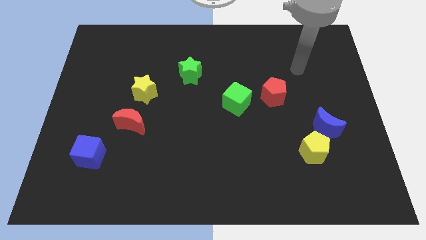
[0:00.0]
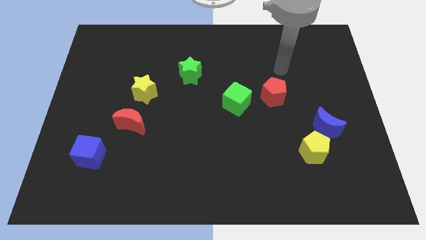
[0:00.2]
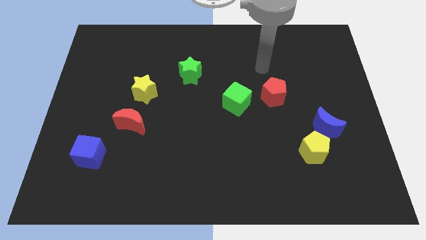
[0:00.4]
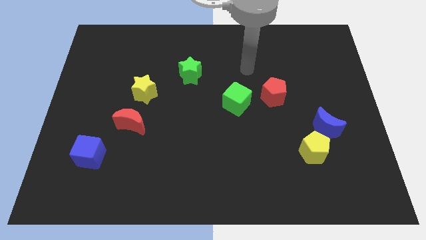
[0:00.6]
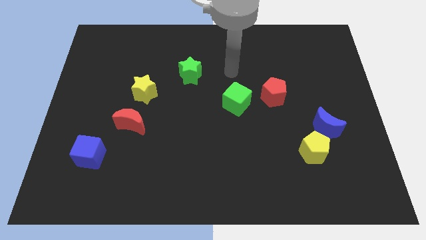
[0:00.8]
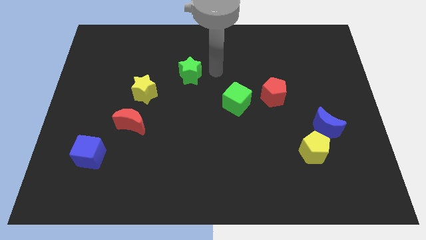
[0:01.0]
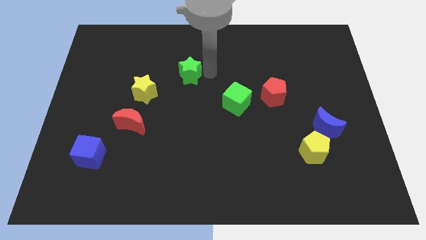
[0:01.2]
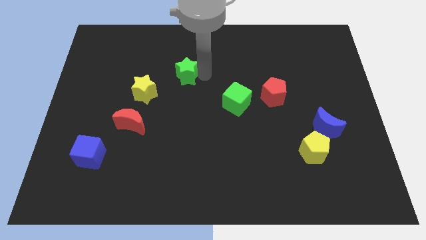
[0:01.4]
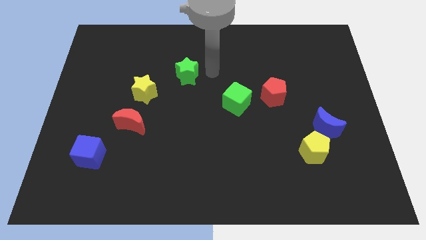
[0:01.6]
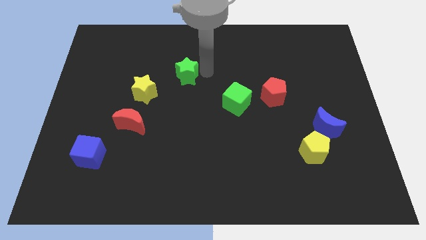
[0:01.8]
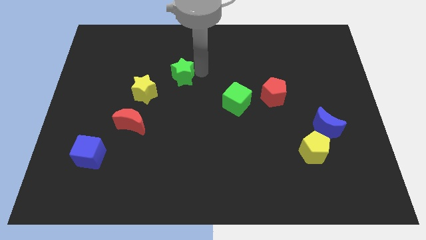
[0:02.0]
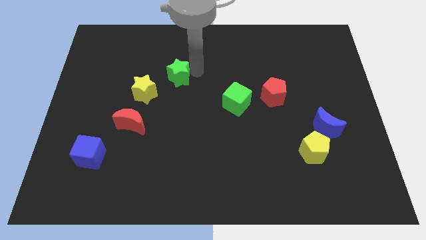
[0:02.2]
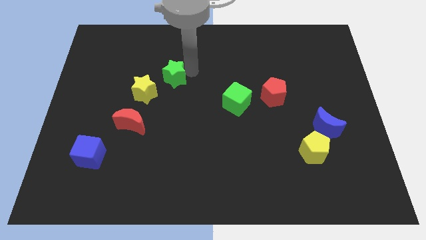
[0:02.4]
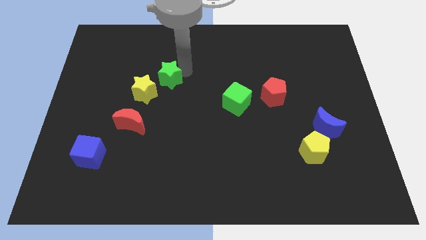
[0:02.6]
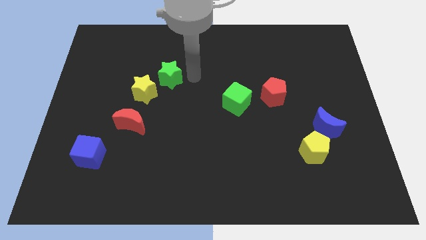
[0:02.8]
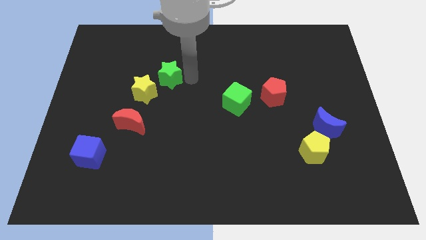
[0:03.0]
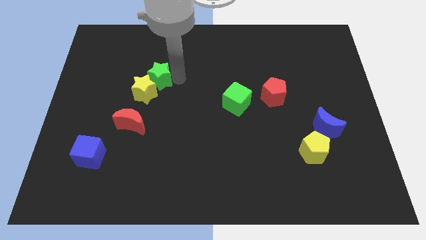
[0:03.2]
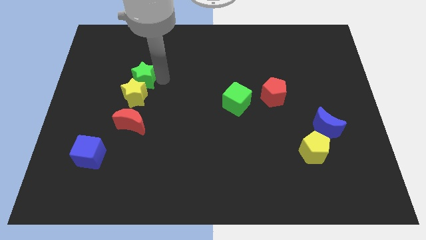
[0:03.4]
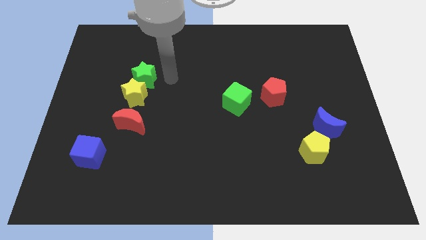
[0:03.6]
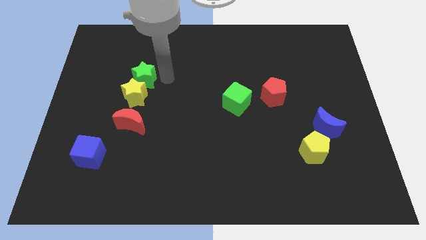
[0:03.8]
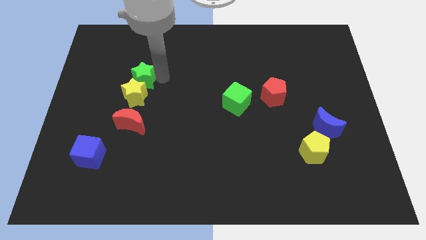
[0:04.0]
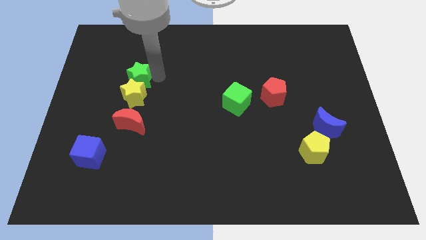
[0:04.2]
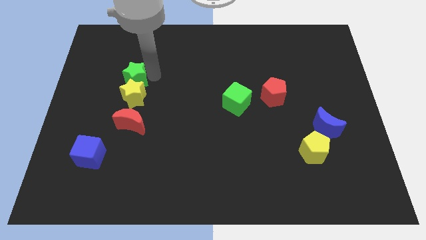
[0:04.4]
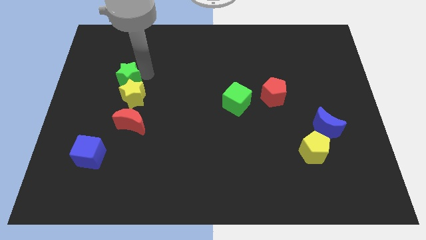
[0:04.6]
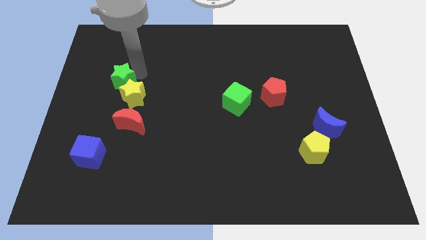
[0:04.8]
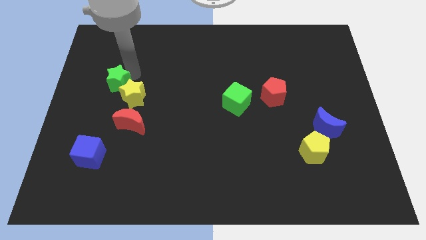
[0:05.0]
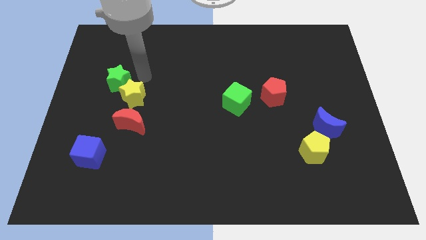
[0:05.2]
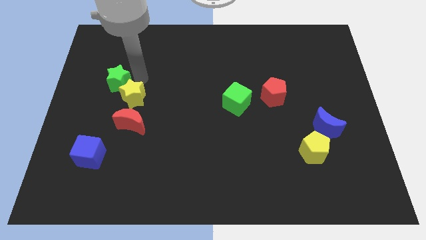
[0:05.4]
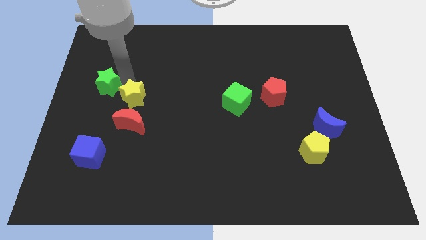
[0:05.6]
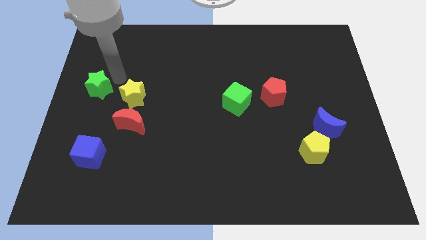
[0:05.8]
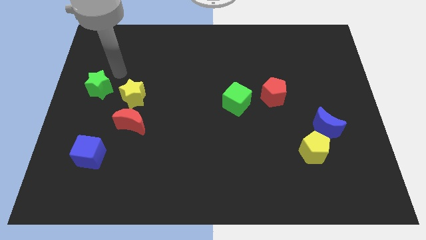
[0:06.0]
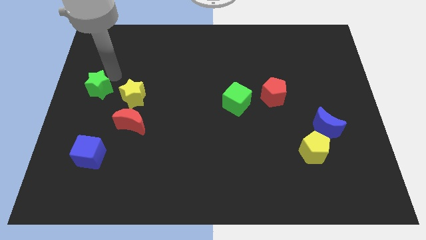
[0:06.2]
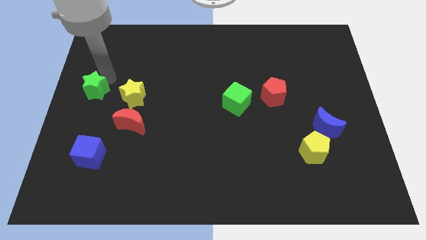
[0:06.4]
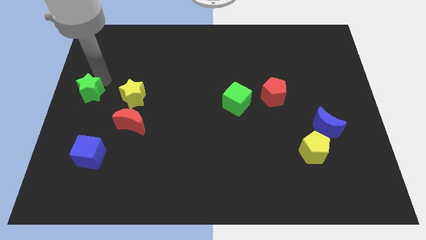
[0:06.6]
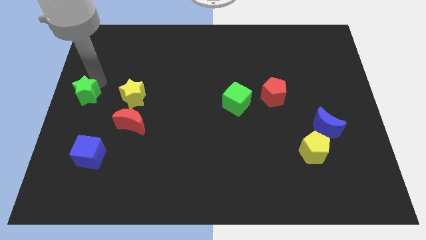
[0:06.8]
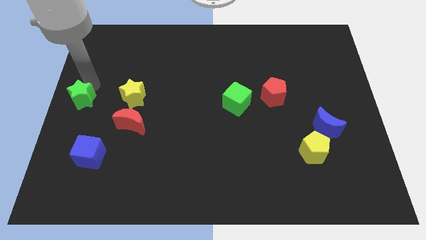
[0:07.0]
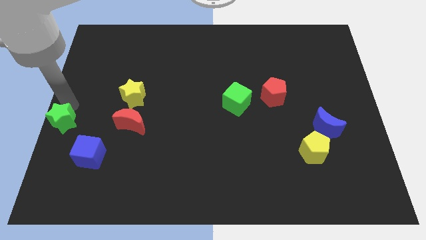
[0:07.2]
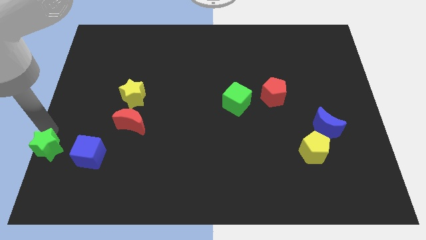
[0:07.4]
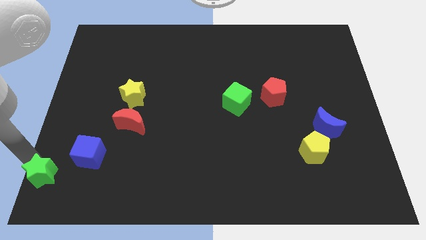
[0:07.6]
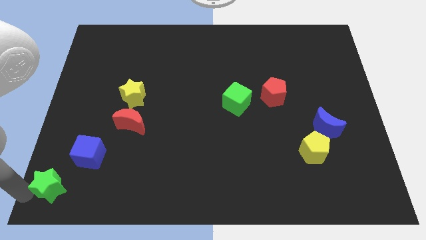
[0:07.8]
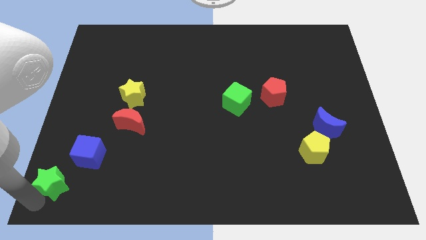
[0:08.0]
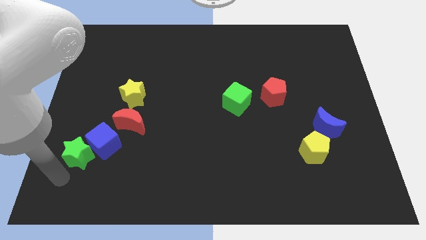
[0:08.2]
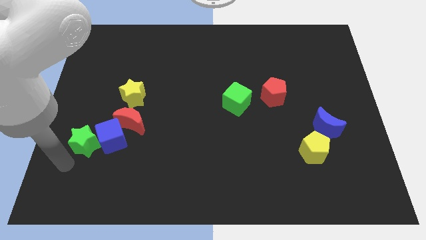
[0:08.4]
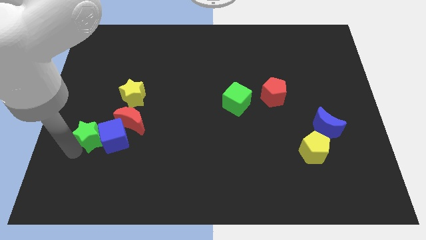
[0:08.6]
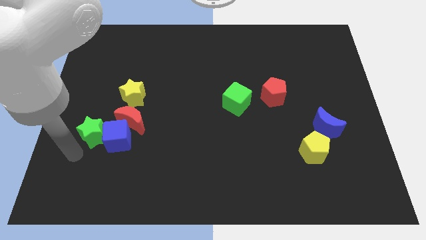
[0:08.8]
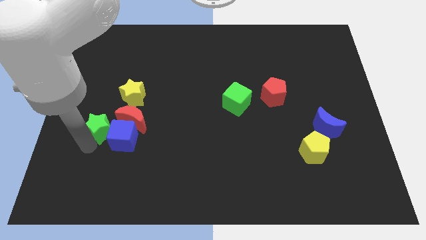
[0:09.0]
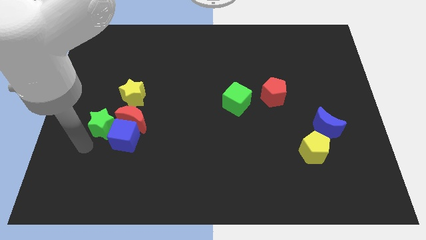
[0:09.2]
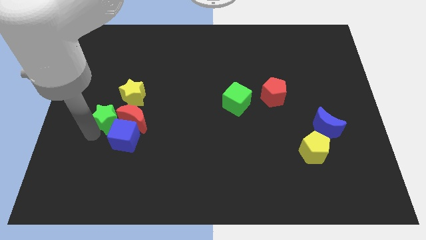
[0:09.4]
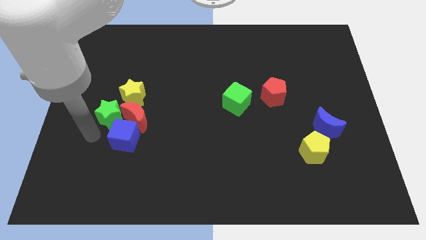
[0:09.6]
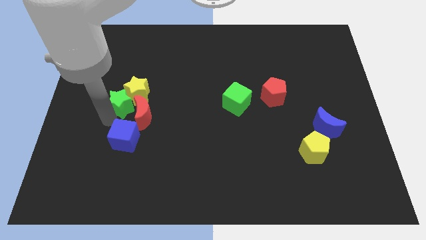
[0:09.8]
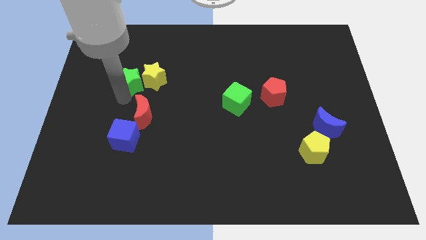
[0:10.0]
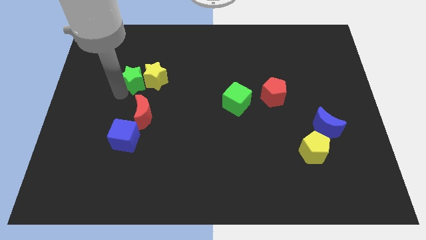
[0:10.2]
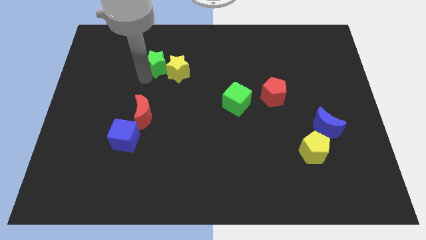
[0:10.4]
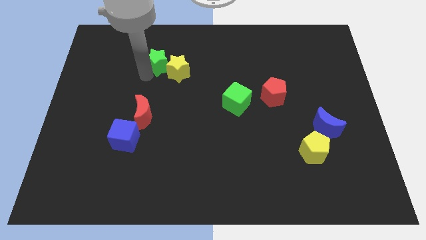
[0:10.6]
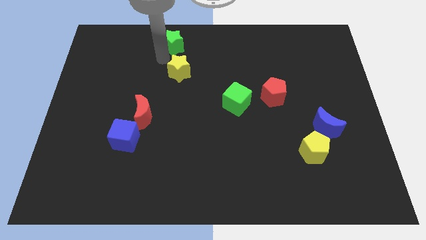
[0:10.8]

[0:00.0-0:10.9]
put the green star to the towards your base

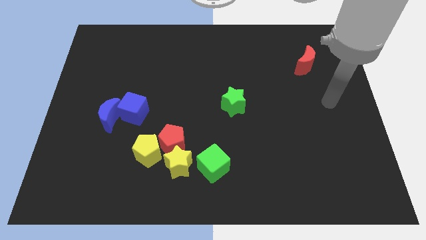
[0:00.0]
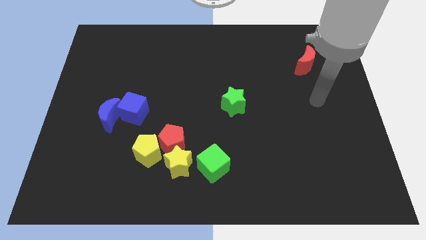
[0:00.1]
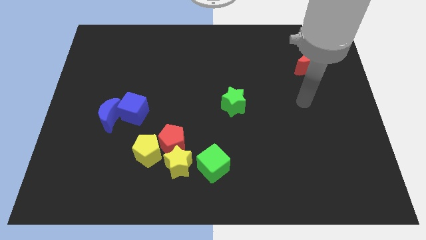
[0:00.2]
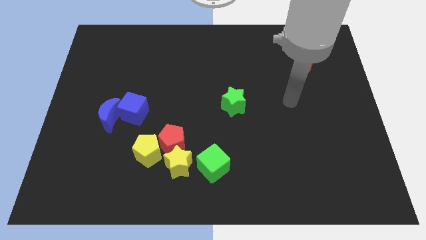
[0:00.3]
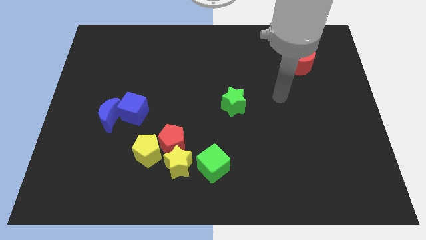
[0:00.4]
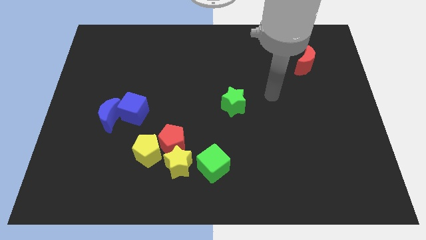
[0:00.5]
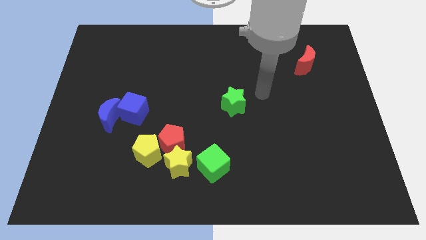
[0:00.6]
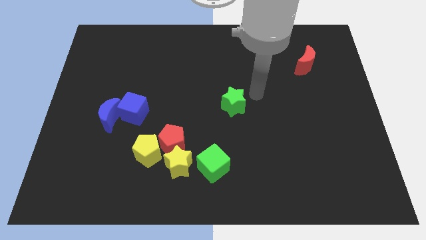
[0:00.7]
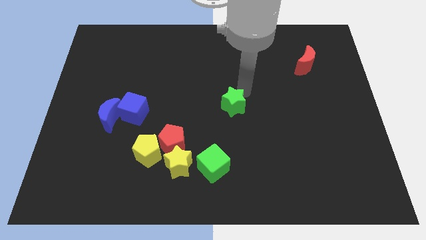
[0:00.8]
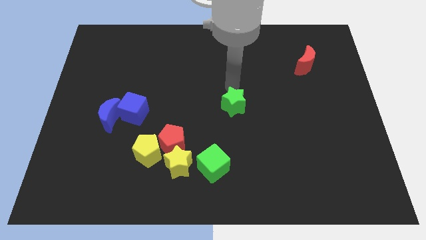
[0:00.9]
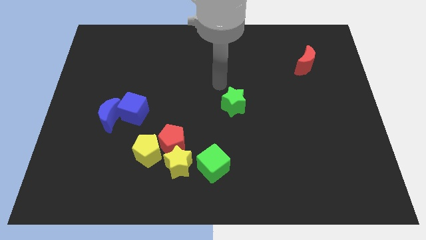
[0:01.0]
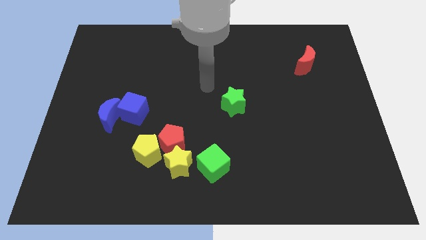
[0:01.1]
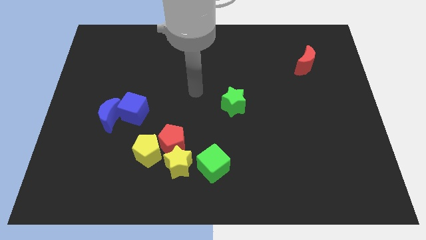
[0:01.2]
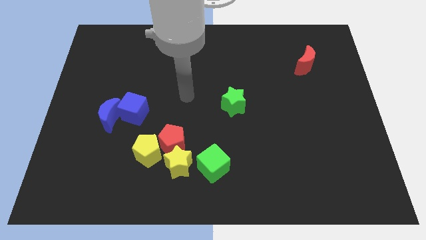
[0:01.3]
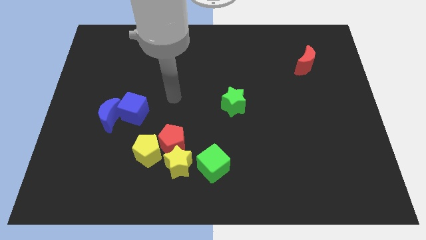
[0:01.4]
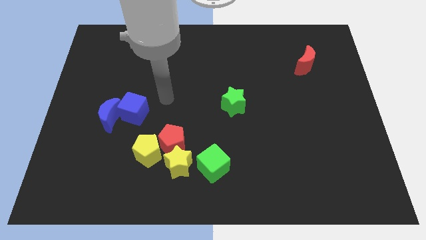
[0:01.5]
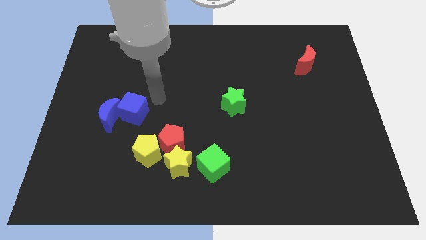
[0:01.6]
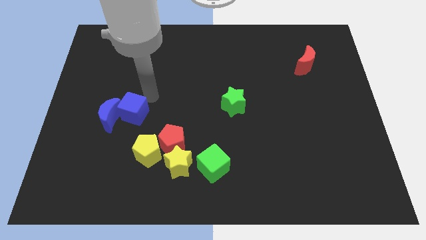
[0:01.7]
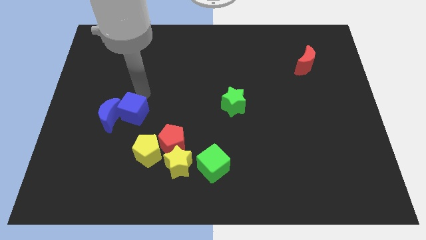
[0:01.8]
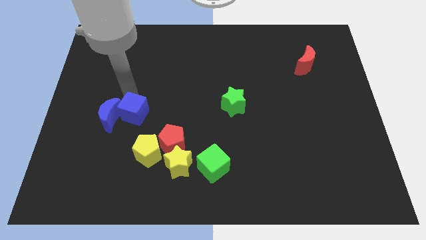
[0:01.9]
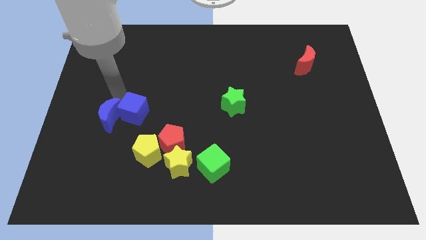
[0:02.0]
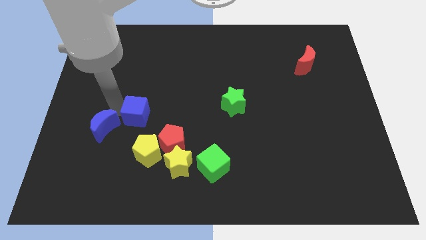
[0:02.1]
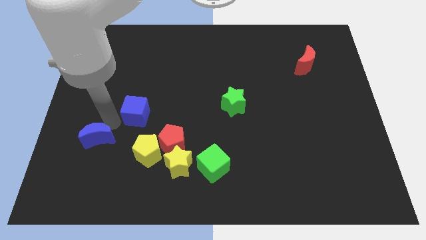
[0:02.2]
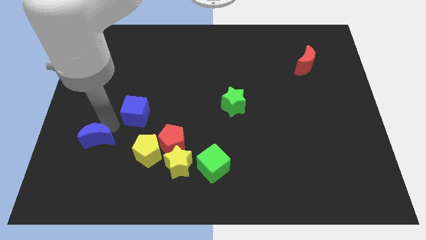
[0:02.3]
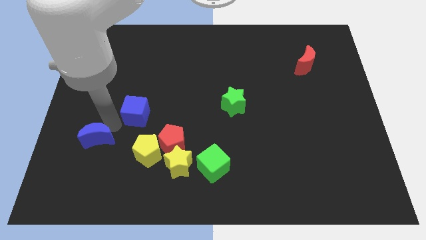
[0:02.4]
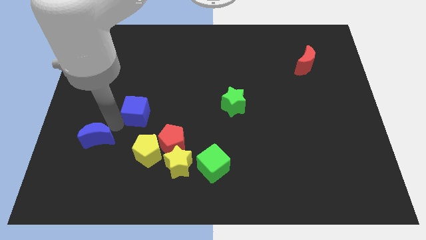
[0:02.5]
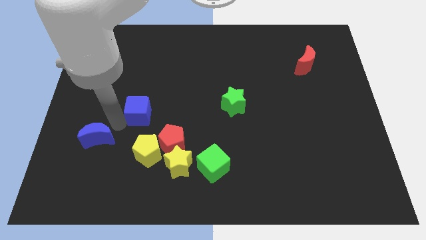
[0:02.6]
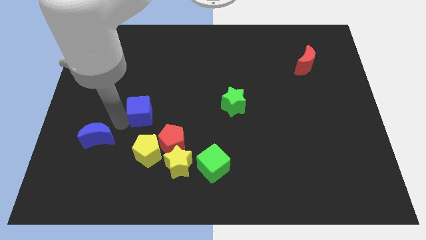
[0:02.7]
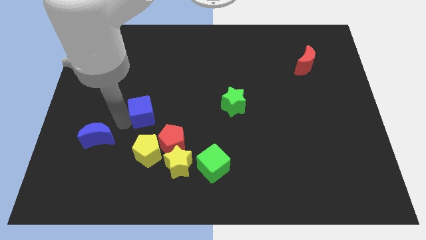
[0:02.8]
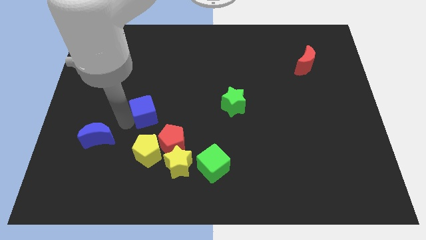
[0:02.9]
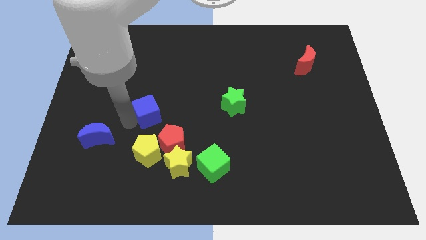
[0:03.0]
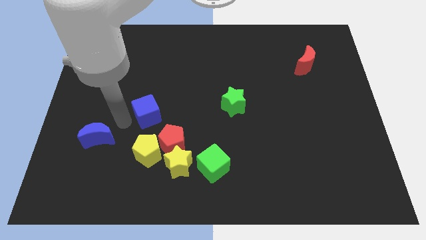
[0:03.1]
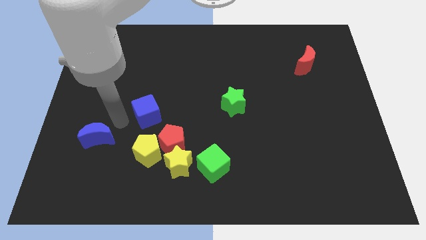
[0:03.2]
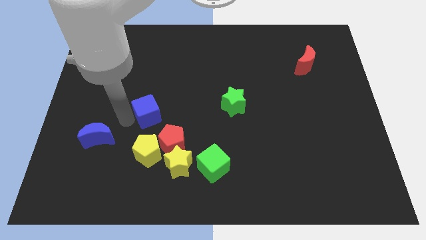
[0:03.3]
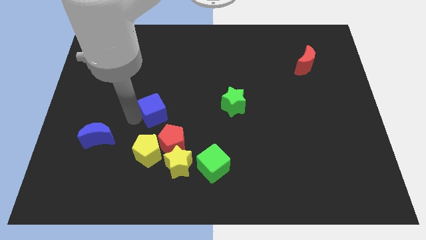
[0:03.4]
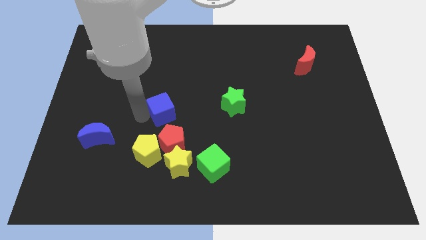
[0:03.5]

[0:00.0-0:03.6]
put the blue cube to the middle of the board
